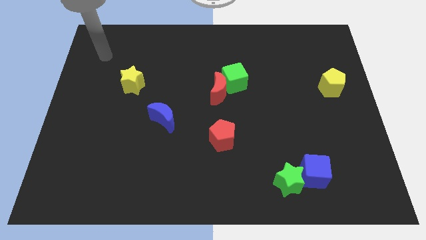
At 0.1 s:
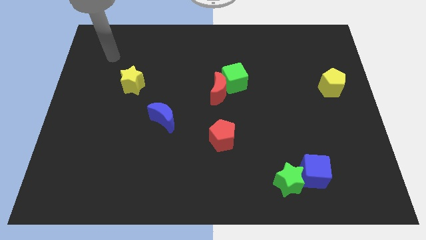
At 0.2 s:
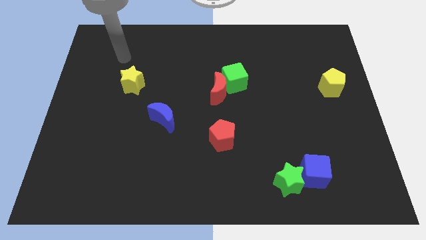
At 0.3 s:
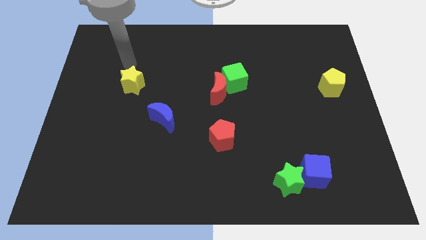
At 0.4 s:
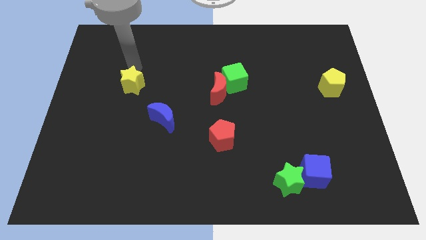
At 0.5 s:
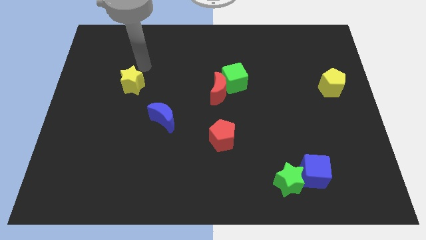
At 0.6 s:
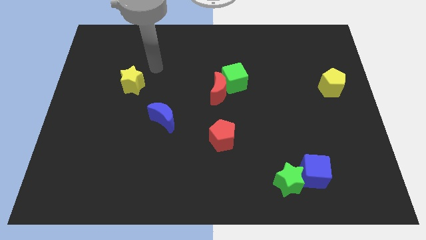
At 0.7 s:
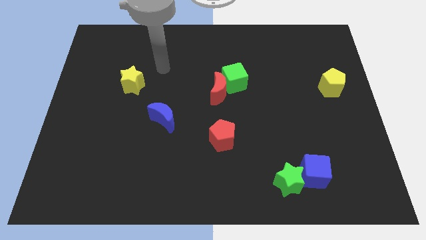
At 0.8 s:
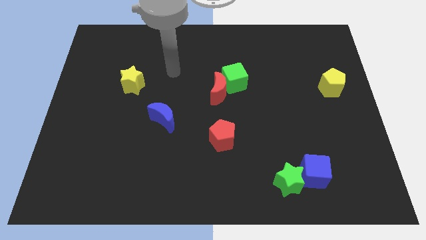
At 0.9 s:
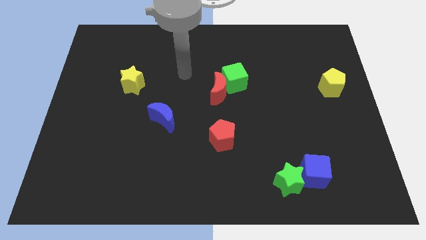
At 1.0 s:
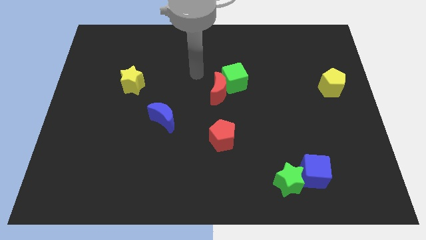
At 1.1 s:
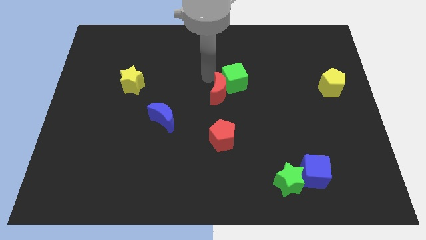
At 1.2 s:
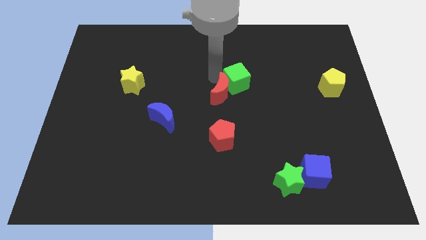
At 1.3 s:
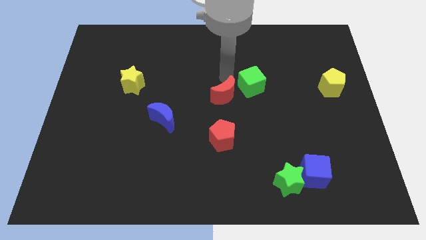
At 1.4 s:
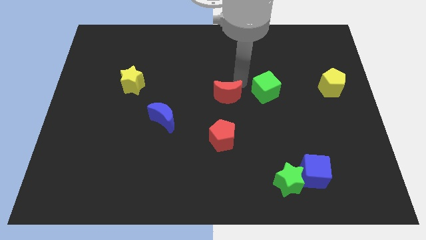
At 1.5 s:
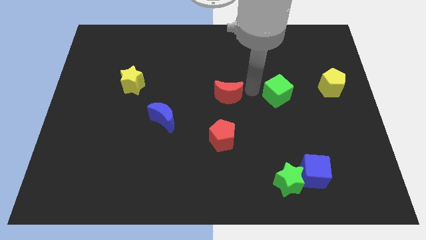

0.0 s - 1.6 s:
pull the red moon apart from the green cube

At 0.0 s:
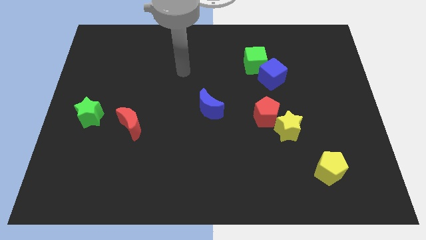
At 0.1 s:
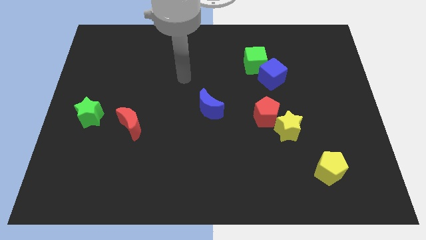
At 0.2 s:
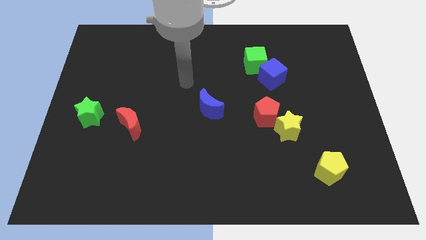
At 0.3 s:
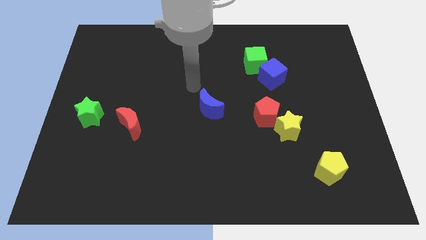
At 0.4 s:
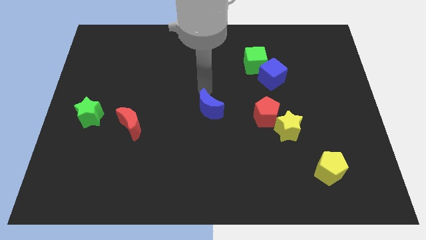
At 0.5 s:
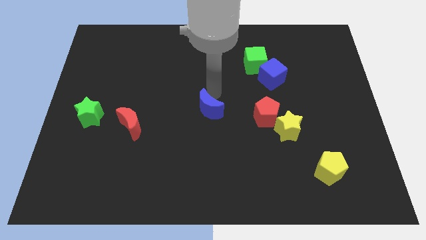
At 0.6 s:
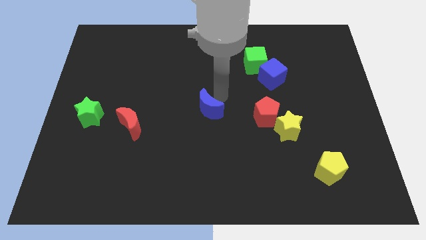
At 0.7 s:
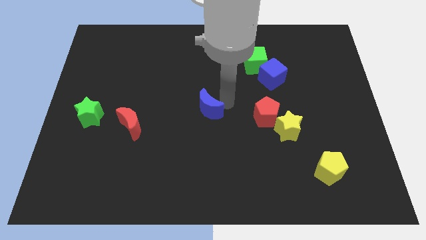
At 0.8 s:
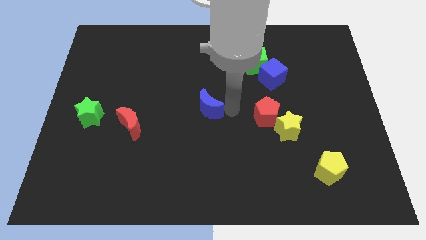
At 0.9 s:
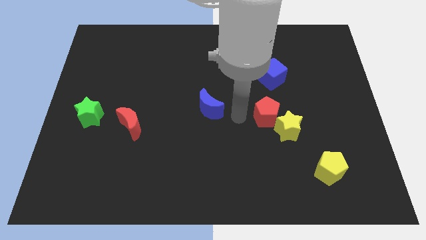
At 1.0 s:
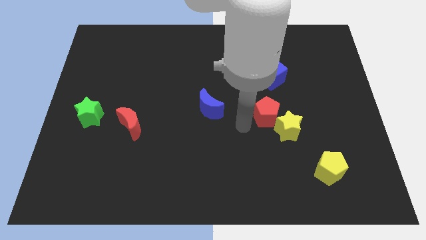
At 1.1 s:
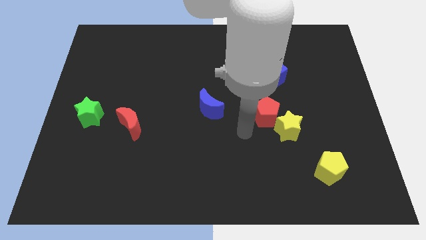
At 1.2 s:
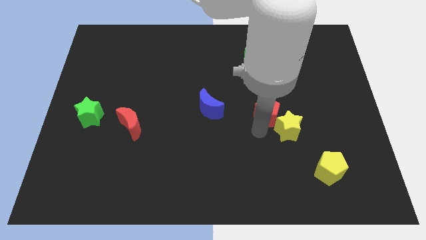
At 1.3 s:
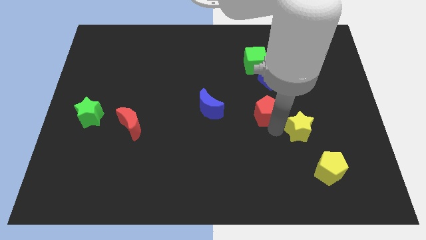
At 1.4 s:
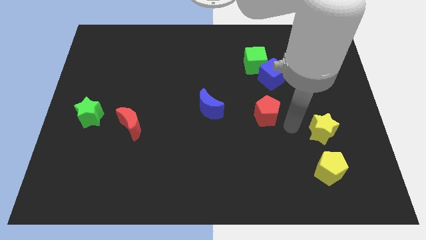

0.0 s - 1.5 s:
move the red pentagon away from the yellow star

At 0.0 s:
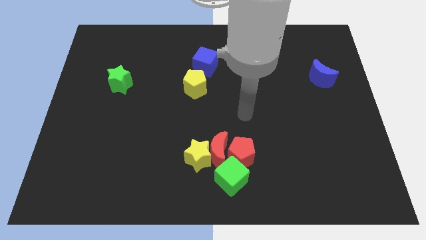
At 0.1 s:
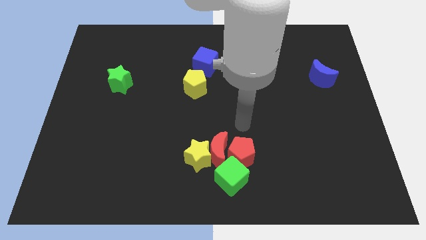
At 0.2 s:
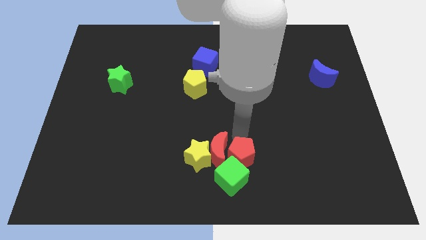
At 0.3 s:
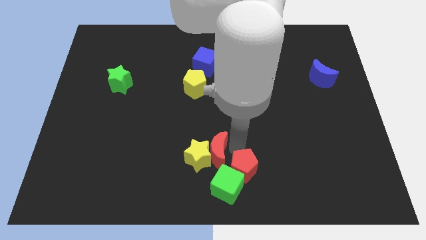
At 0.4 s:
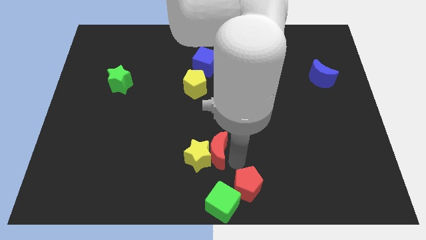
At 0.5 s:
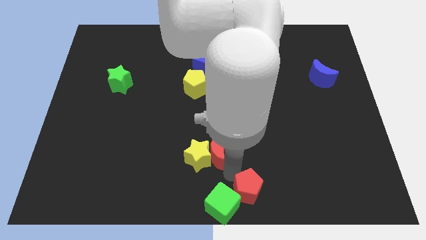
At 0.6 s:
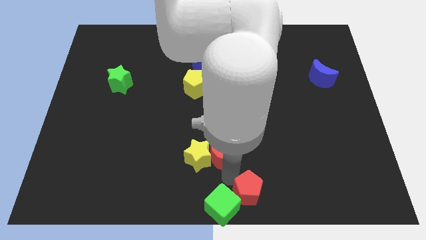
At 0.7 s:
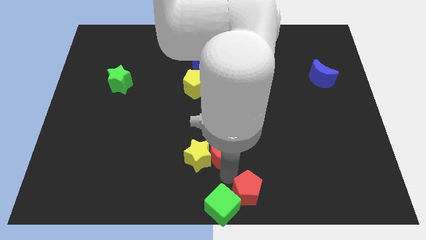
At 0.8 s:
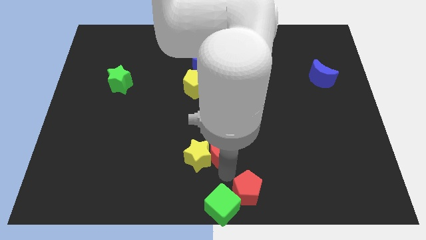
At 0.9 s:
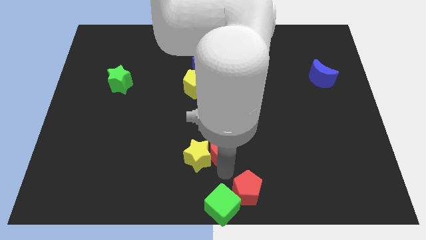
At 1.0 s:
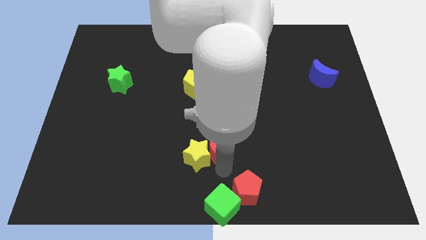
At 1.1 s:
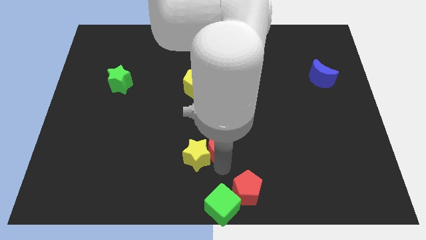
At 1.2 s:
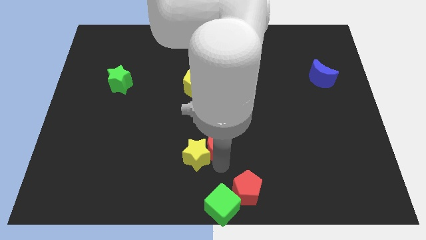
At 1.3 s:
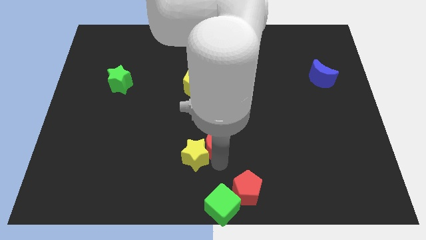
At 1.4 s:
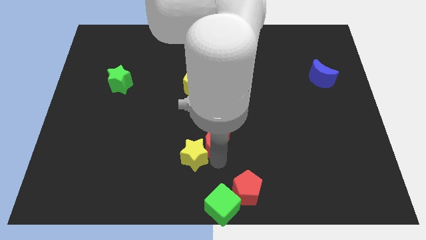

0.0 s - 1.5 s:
move the red moon away from the clump

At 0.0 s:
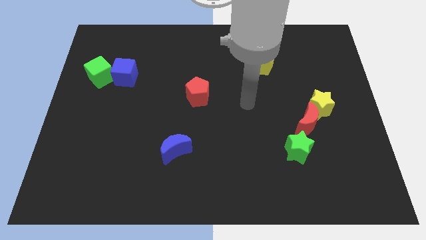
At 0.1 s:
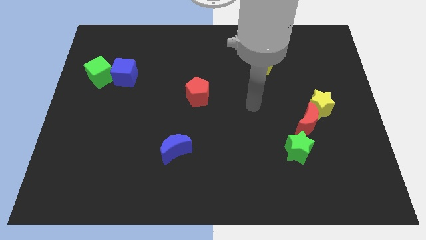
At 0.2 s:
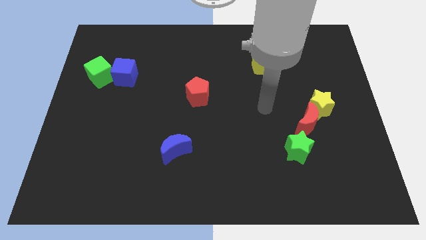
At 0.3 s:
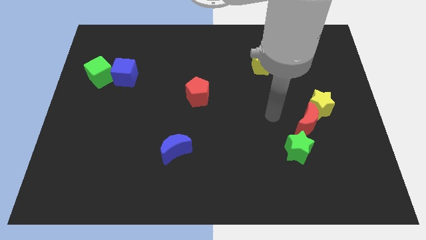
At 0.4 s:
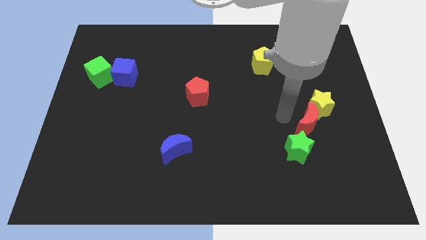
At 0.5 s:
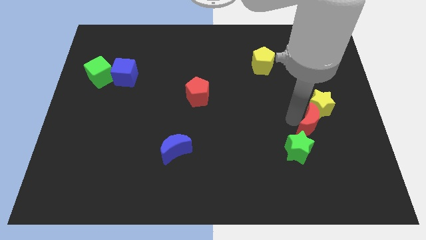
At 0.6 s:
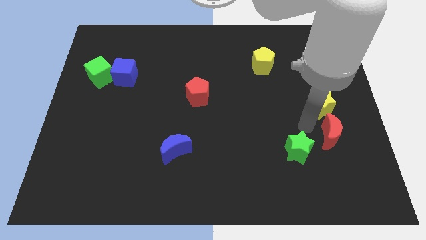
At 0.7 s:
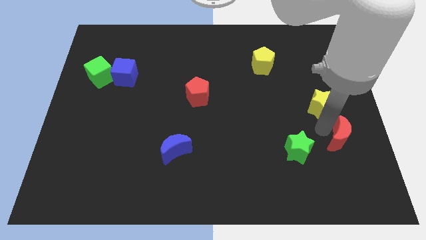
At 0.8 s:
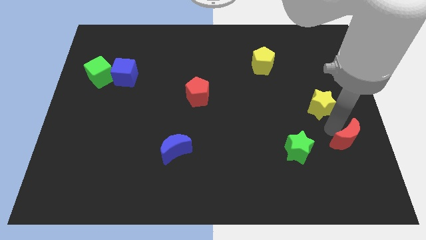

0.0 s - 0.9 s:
pull the yellow star apart from the red moon

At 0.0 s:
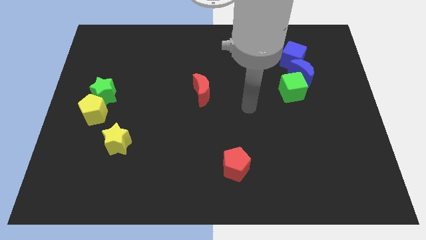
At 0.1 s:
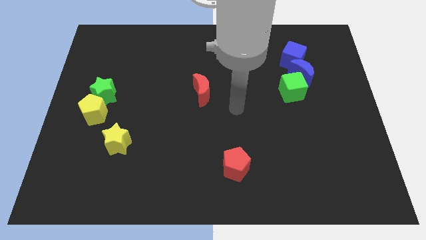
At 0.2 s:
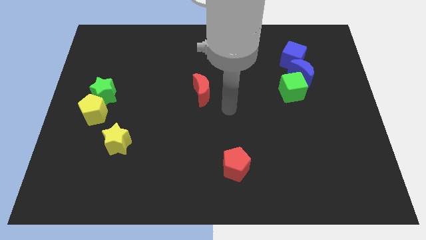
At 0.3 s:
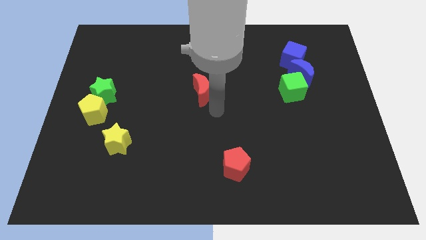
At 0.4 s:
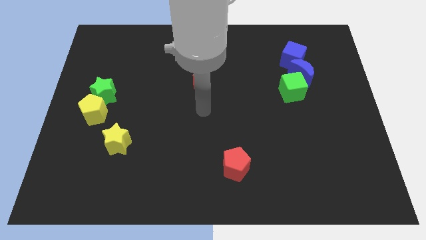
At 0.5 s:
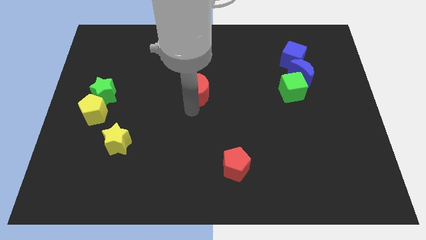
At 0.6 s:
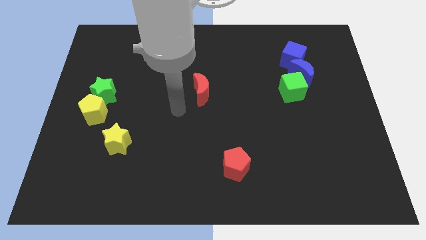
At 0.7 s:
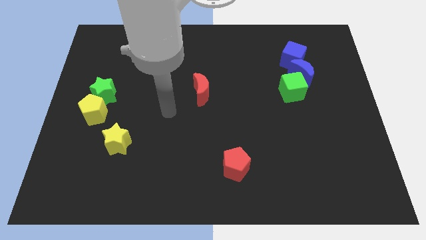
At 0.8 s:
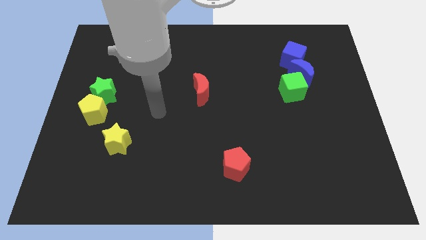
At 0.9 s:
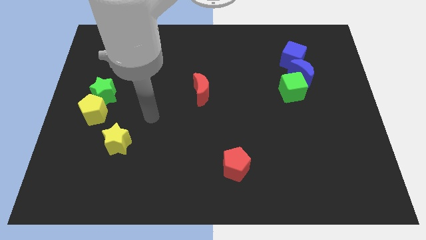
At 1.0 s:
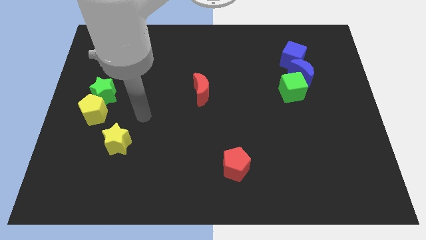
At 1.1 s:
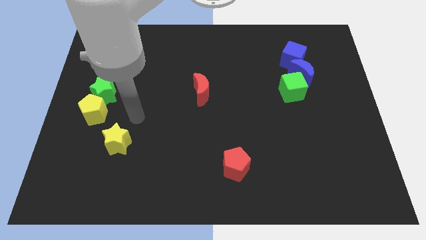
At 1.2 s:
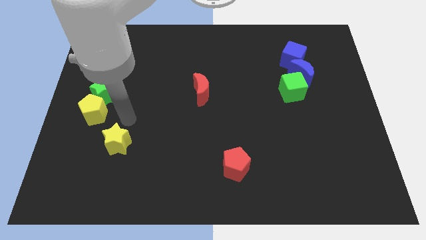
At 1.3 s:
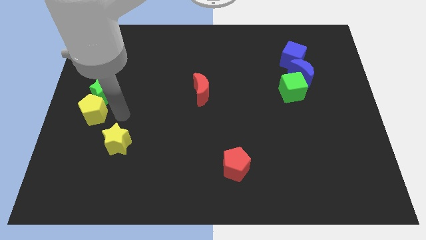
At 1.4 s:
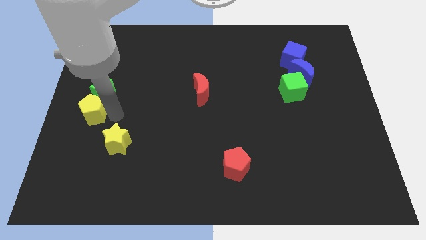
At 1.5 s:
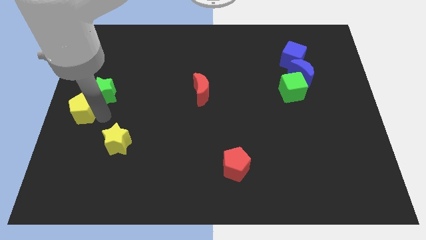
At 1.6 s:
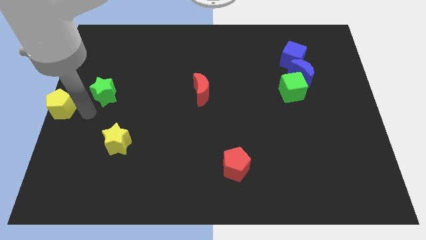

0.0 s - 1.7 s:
separate the green star from the yellow pentagon

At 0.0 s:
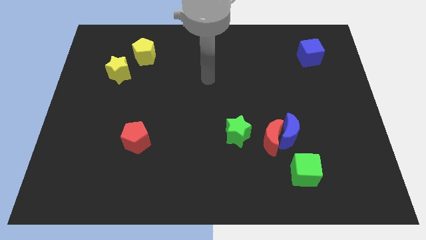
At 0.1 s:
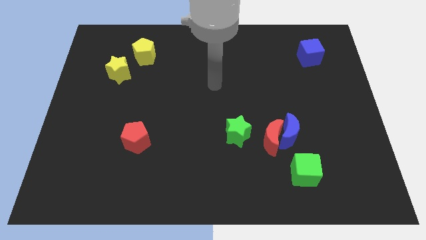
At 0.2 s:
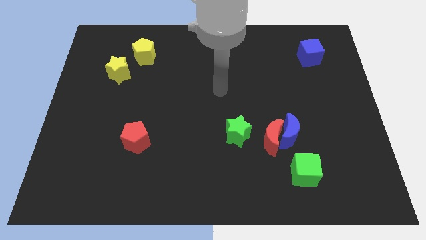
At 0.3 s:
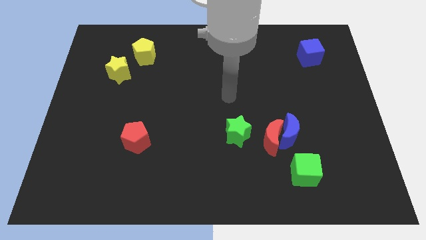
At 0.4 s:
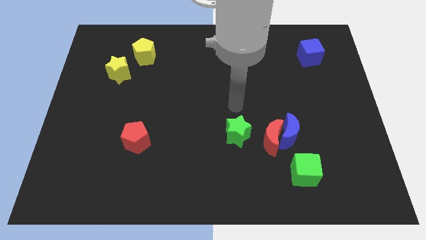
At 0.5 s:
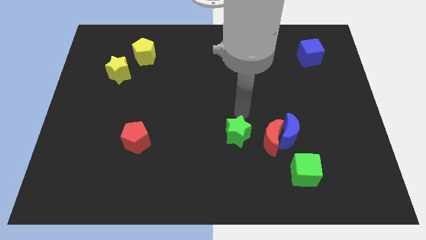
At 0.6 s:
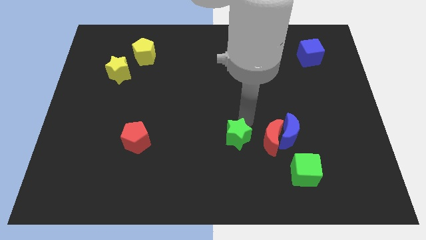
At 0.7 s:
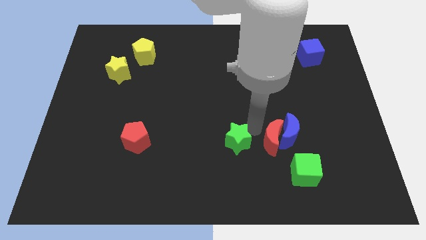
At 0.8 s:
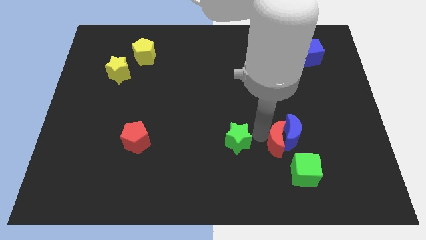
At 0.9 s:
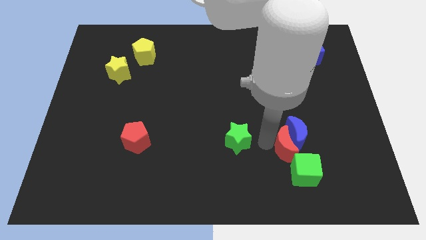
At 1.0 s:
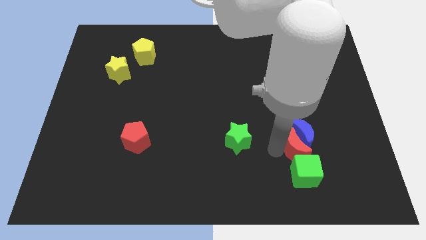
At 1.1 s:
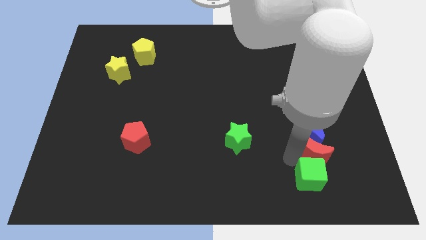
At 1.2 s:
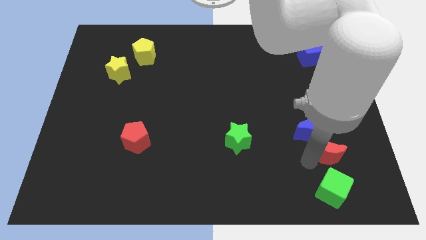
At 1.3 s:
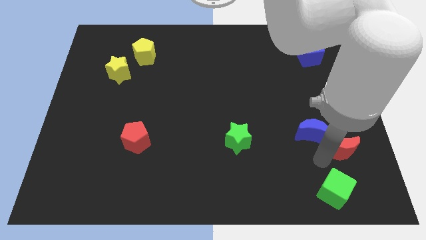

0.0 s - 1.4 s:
pull the blue moon apart from the red moon and green cube

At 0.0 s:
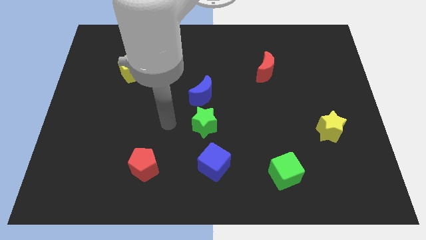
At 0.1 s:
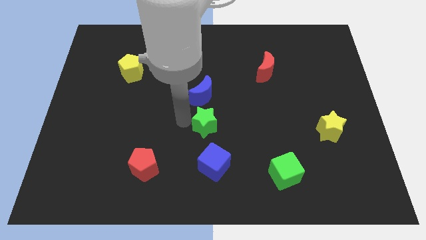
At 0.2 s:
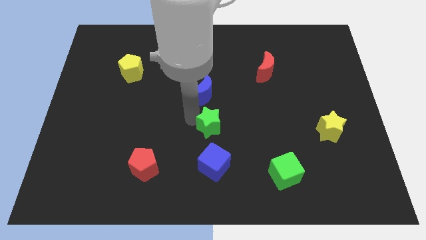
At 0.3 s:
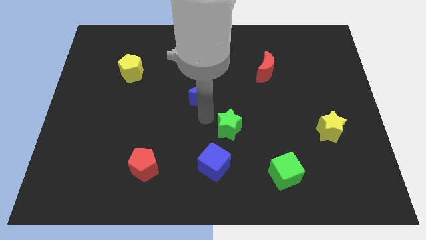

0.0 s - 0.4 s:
pull the blue moon apart from the green star

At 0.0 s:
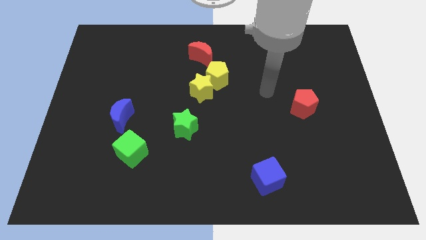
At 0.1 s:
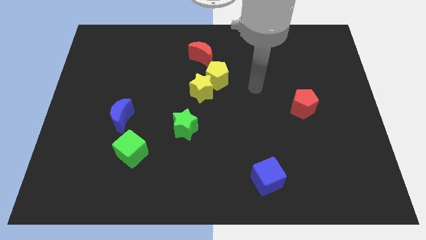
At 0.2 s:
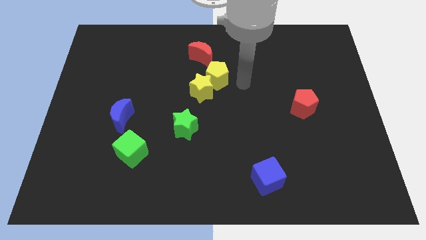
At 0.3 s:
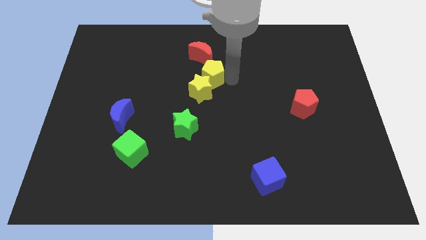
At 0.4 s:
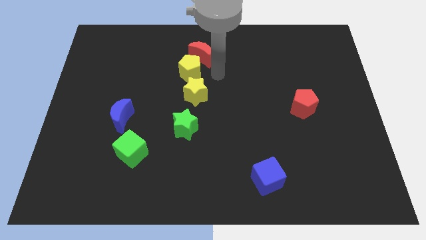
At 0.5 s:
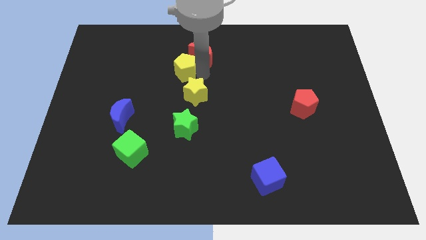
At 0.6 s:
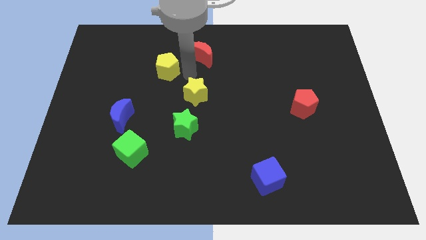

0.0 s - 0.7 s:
separate the yellow star from the yellow pentagon
